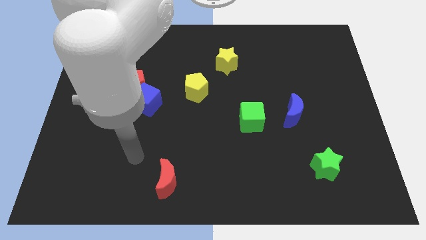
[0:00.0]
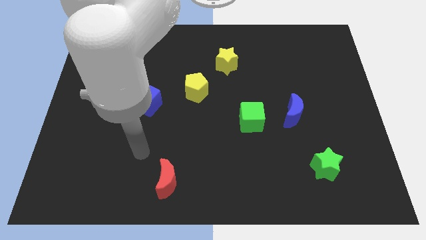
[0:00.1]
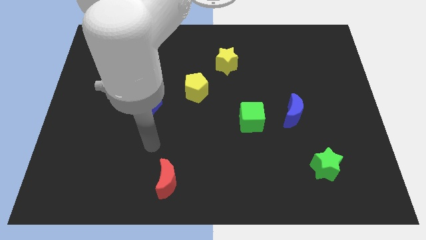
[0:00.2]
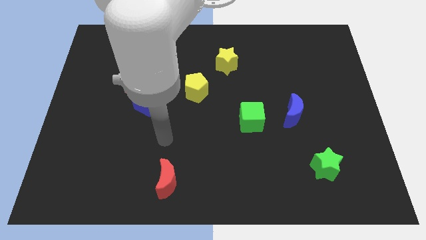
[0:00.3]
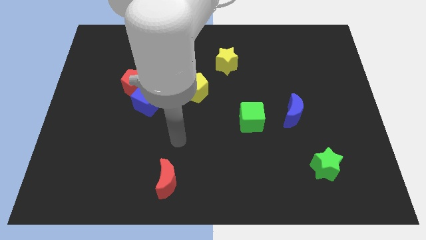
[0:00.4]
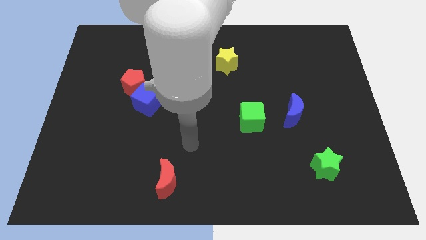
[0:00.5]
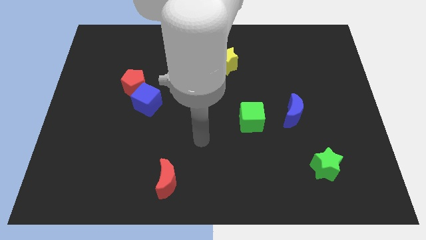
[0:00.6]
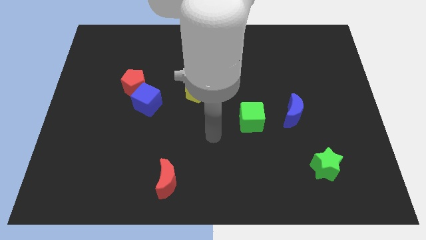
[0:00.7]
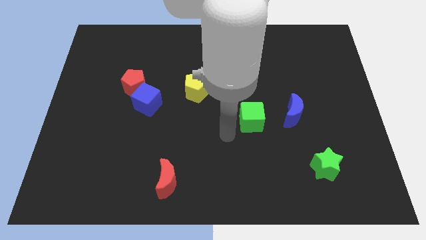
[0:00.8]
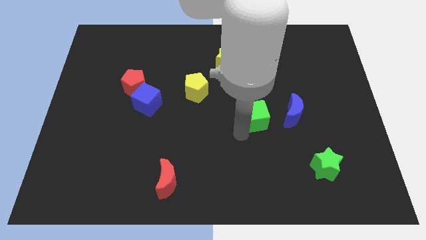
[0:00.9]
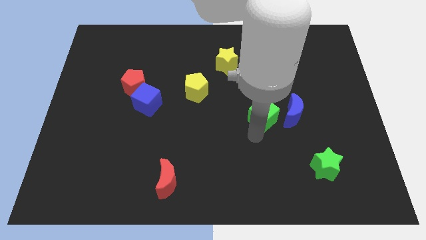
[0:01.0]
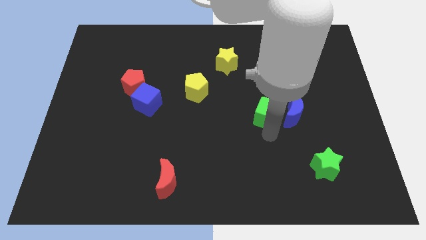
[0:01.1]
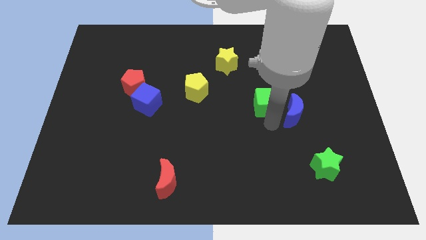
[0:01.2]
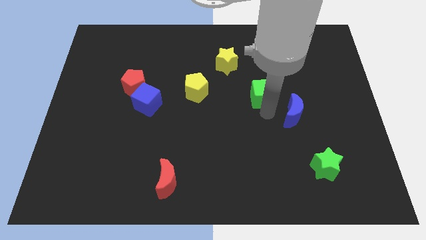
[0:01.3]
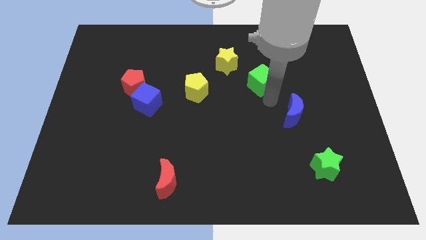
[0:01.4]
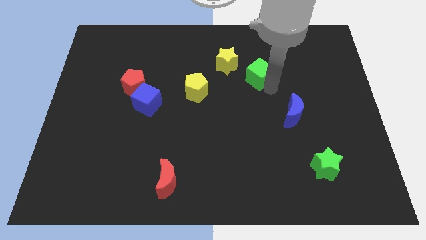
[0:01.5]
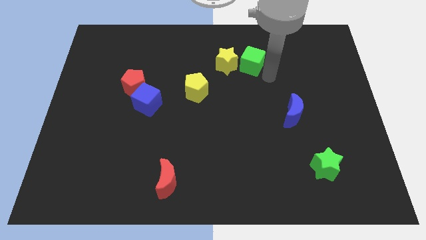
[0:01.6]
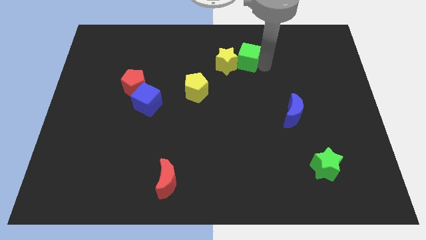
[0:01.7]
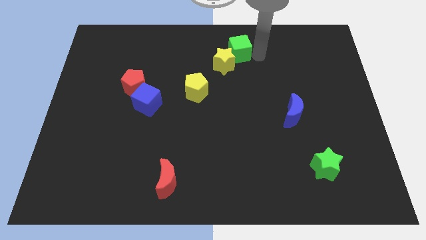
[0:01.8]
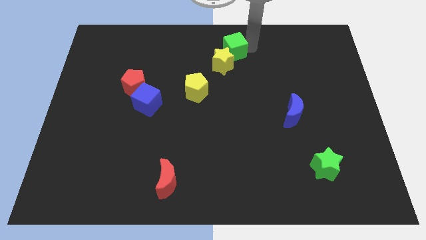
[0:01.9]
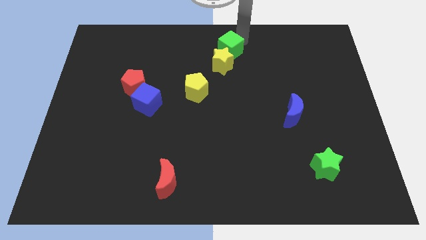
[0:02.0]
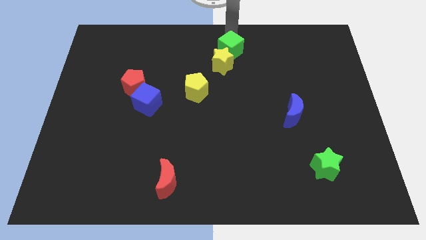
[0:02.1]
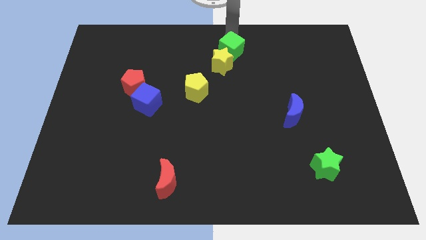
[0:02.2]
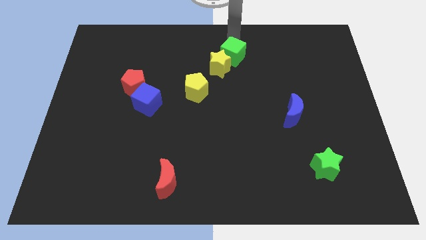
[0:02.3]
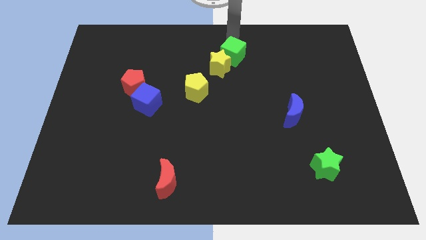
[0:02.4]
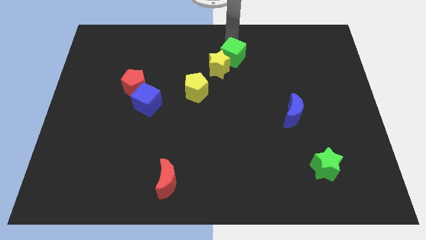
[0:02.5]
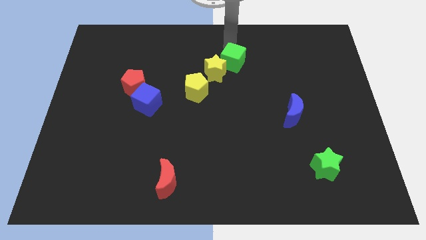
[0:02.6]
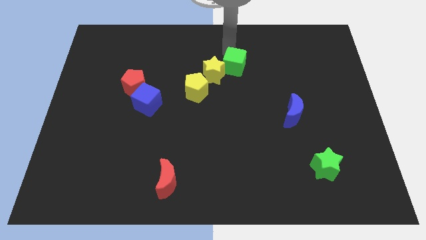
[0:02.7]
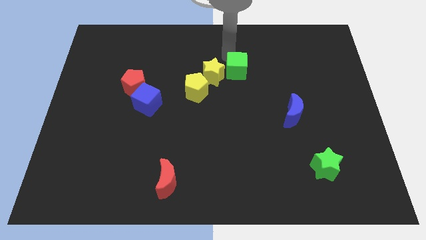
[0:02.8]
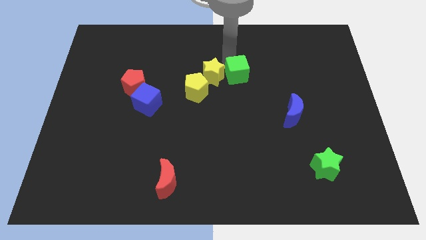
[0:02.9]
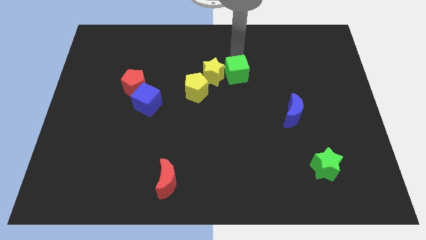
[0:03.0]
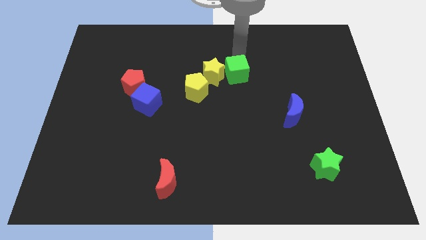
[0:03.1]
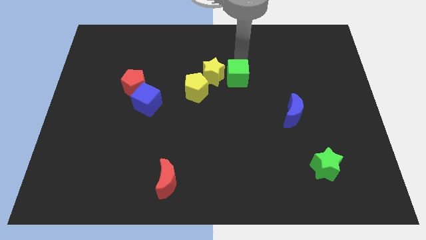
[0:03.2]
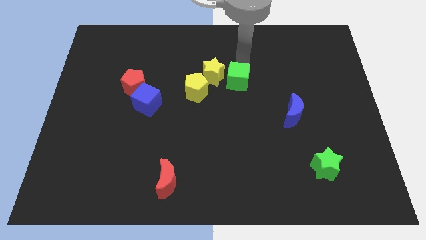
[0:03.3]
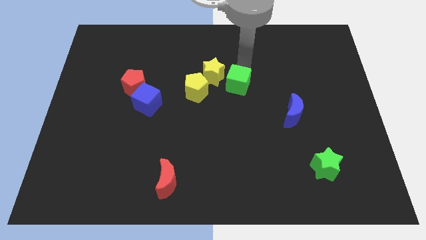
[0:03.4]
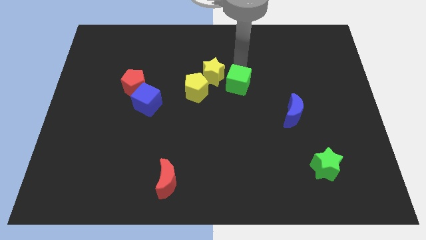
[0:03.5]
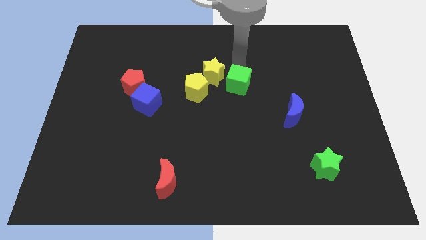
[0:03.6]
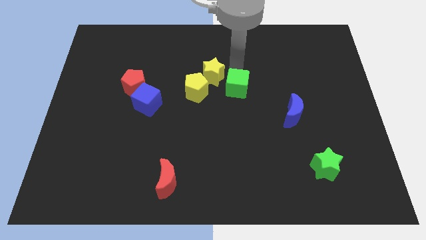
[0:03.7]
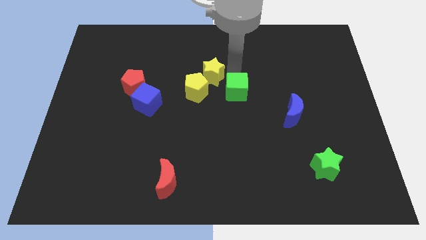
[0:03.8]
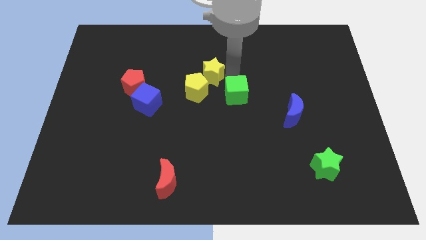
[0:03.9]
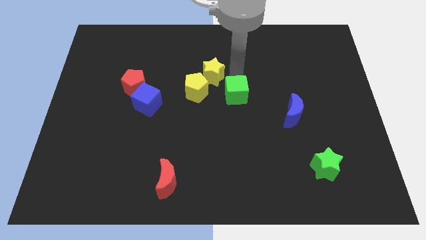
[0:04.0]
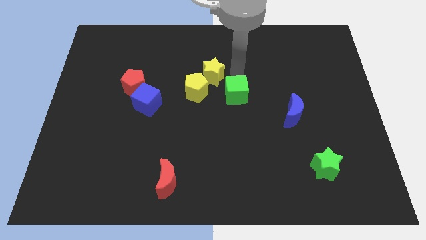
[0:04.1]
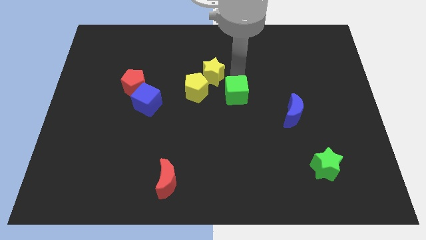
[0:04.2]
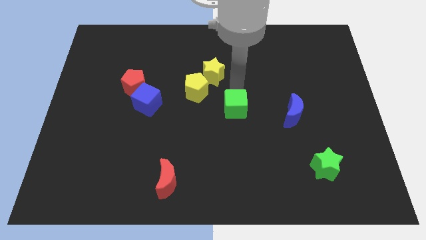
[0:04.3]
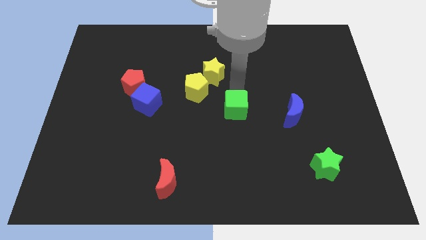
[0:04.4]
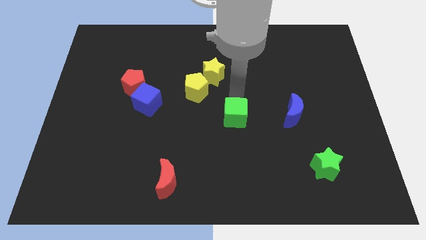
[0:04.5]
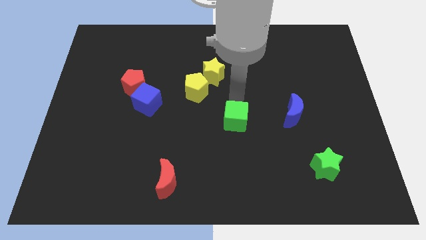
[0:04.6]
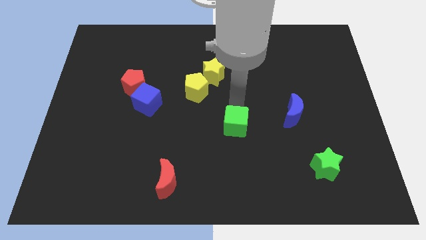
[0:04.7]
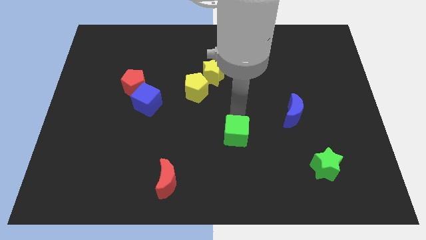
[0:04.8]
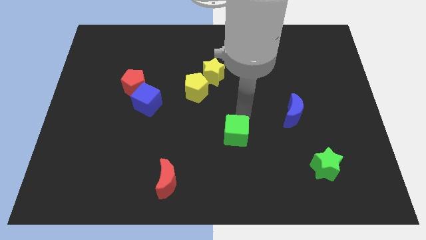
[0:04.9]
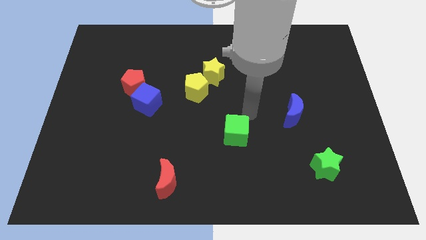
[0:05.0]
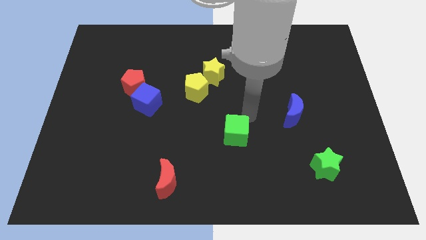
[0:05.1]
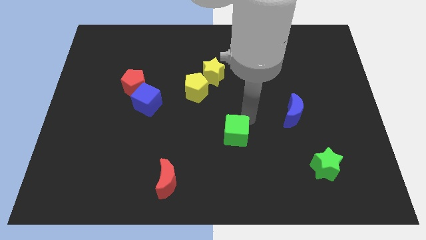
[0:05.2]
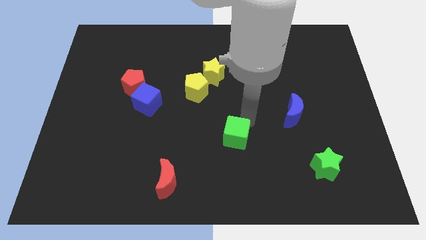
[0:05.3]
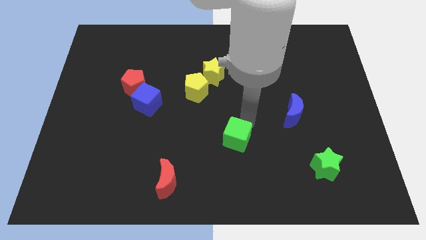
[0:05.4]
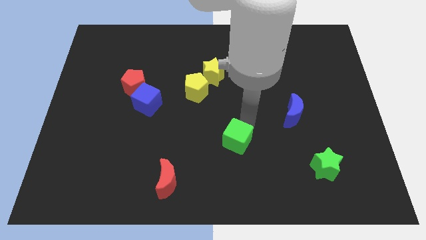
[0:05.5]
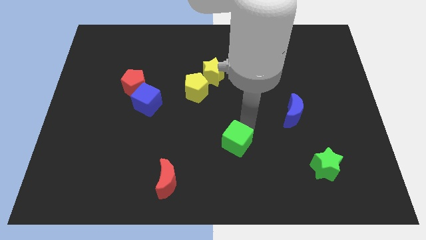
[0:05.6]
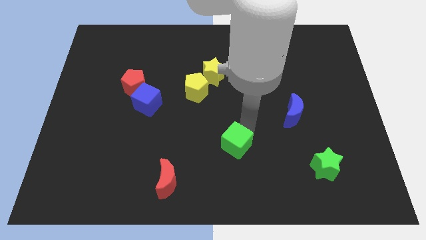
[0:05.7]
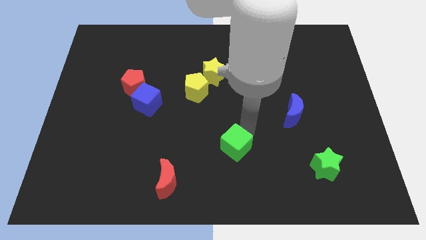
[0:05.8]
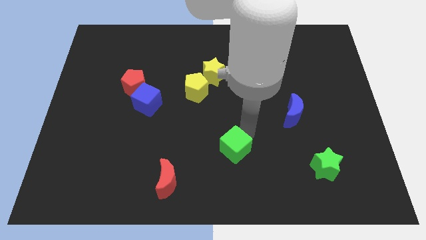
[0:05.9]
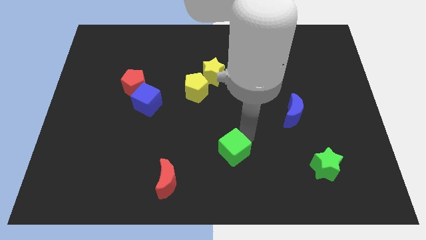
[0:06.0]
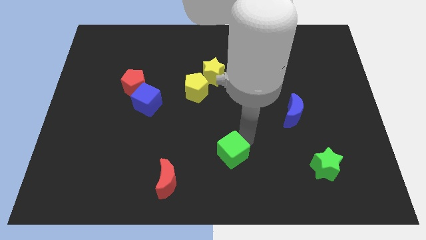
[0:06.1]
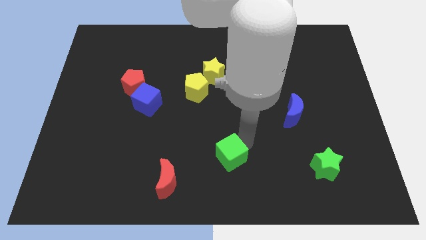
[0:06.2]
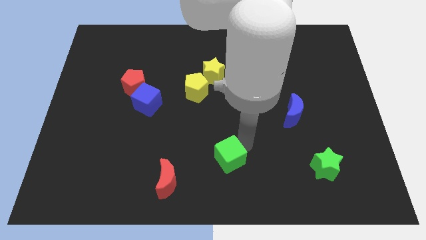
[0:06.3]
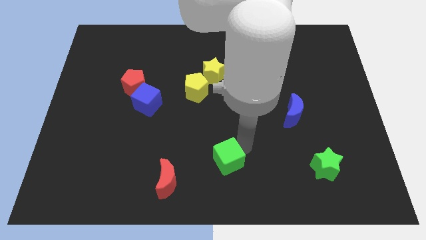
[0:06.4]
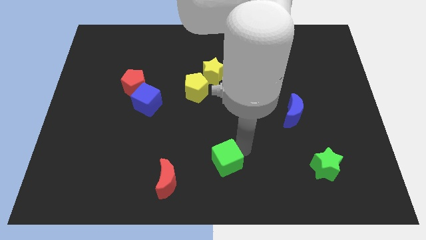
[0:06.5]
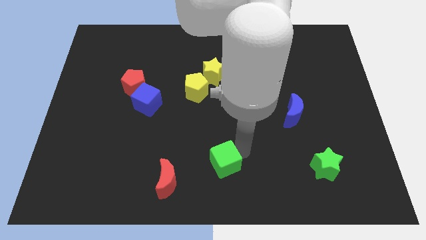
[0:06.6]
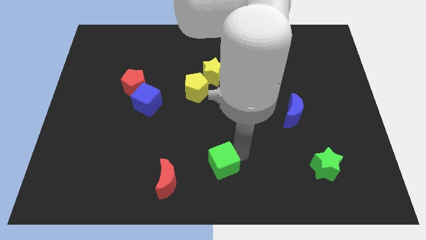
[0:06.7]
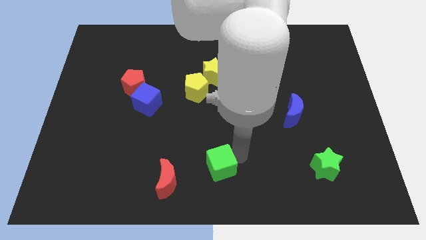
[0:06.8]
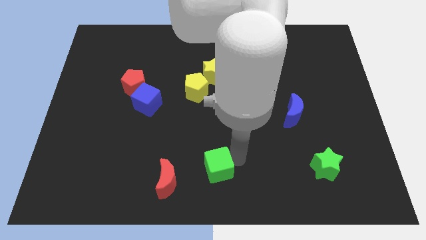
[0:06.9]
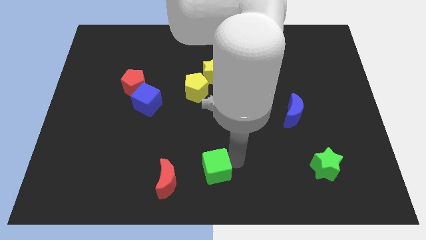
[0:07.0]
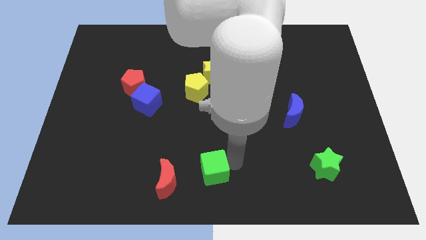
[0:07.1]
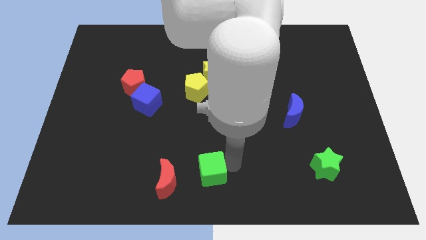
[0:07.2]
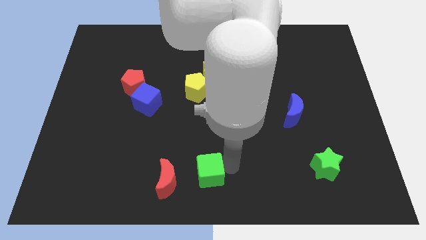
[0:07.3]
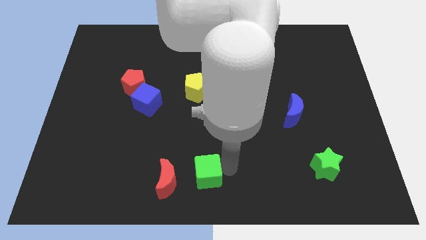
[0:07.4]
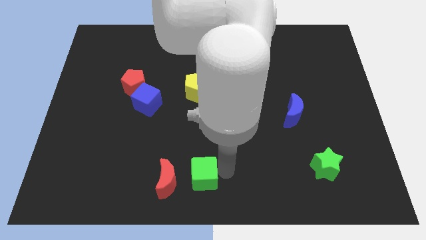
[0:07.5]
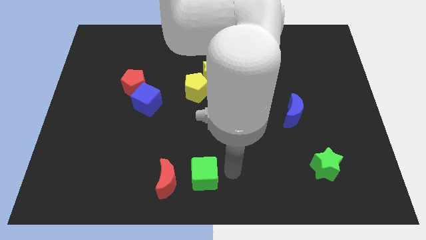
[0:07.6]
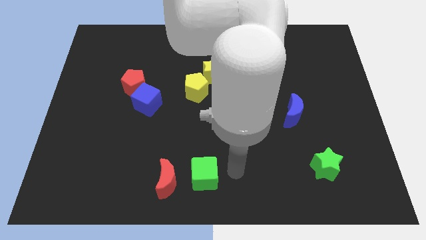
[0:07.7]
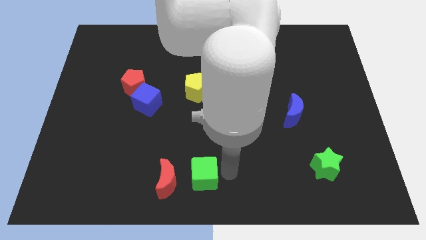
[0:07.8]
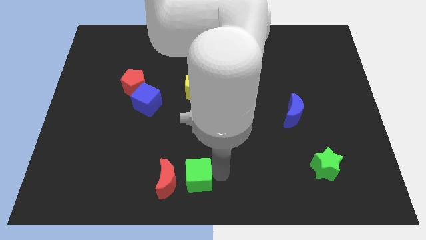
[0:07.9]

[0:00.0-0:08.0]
slide the green cube towards the red moon
